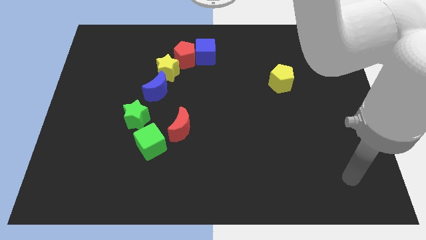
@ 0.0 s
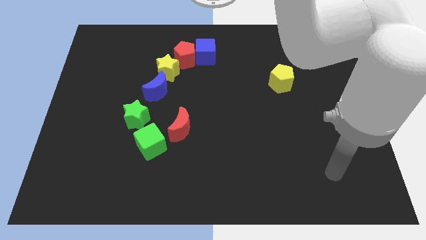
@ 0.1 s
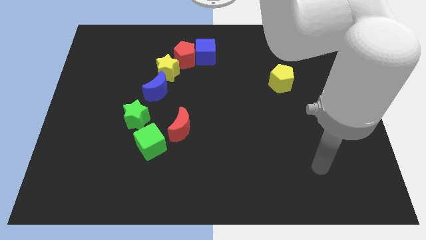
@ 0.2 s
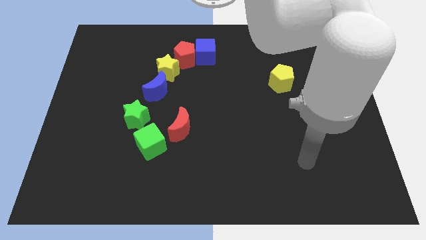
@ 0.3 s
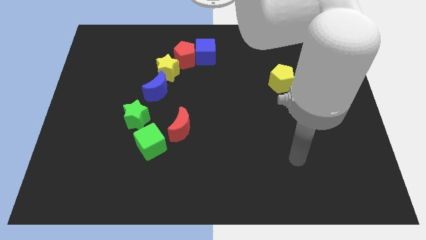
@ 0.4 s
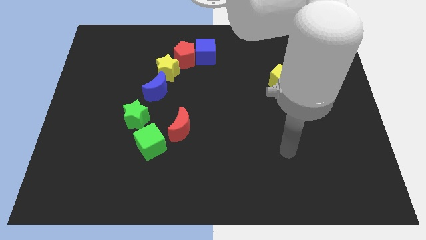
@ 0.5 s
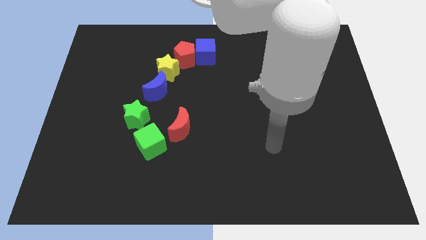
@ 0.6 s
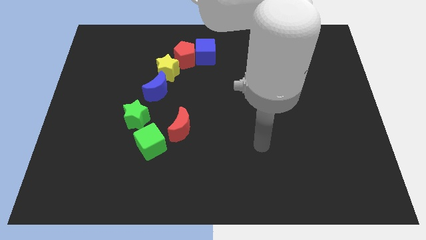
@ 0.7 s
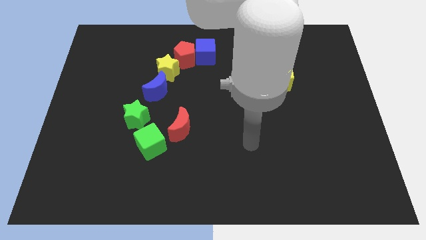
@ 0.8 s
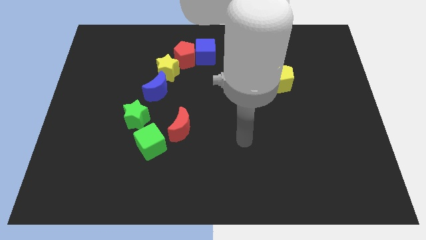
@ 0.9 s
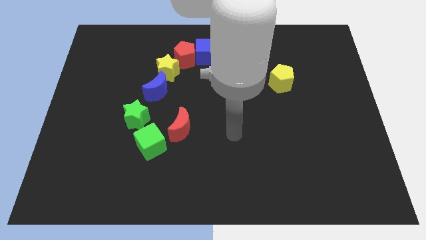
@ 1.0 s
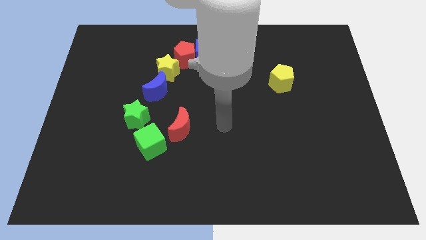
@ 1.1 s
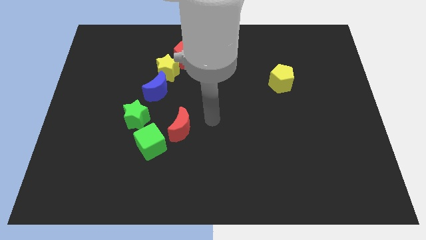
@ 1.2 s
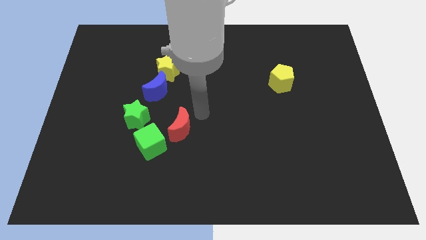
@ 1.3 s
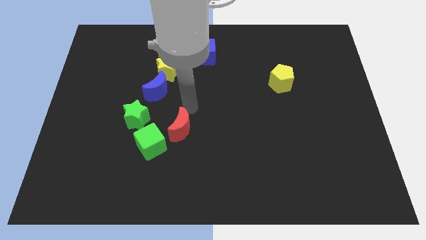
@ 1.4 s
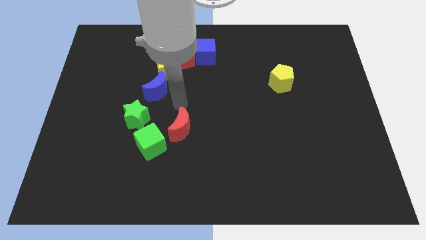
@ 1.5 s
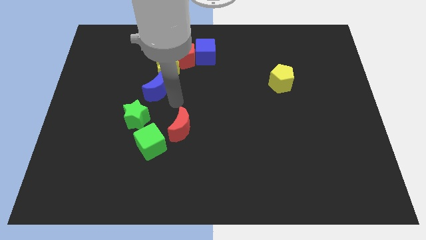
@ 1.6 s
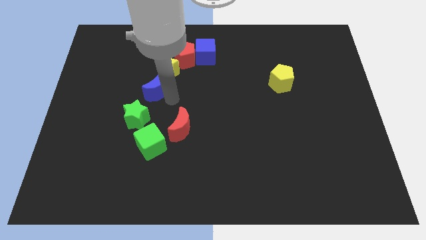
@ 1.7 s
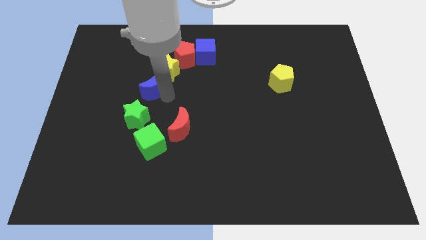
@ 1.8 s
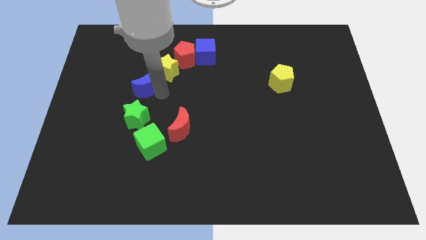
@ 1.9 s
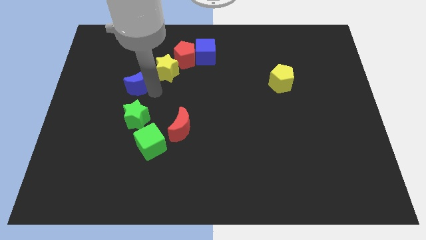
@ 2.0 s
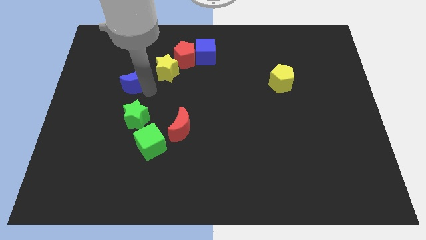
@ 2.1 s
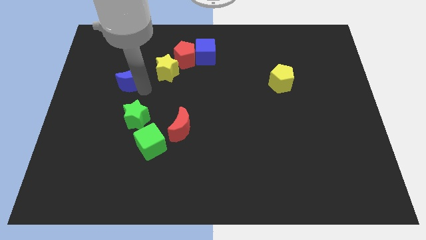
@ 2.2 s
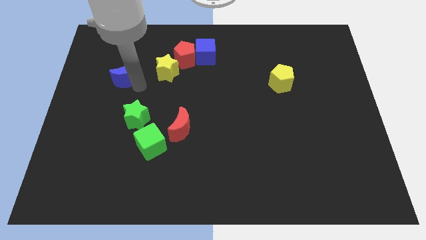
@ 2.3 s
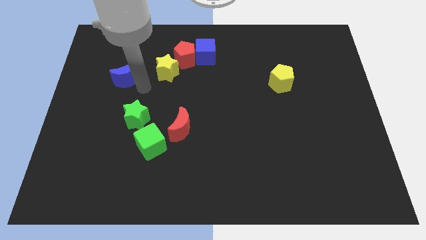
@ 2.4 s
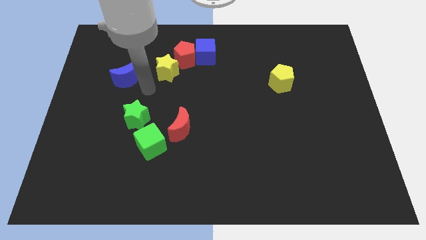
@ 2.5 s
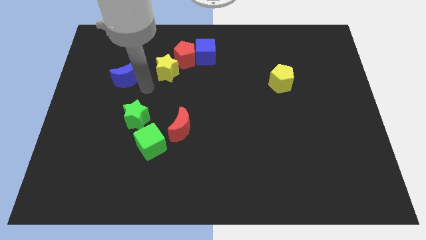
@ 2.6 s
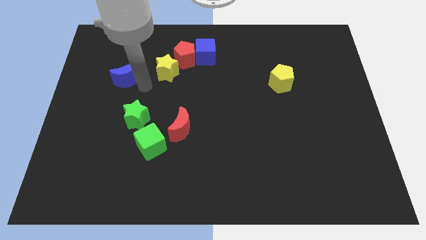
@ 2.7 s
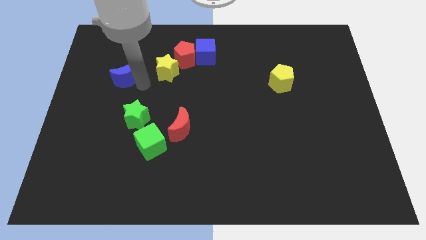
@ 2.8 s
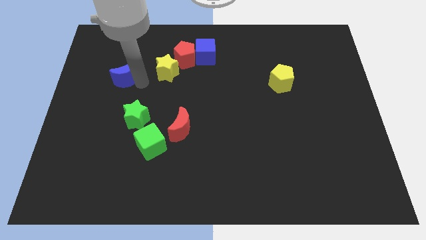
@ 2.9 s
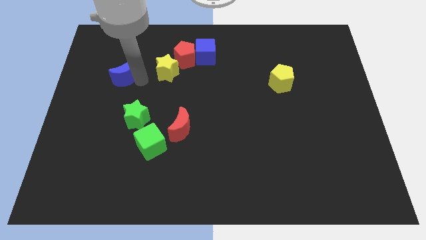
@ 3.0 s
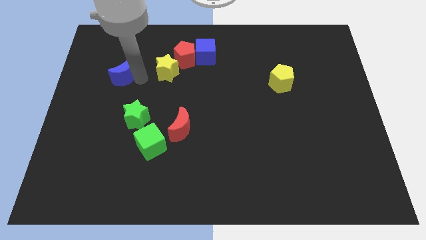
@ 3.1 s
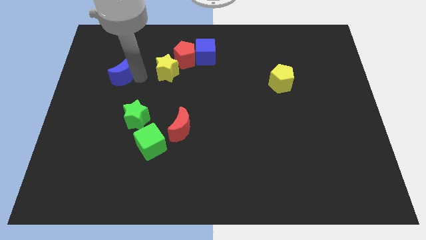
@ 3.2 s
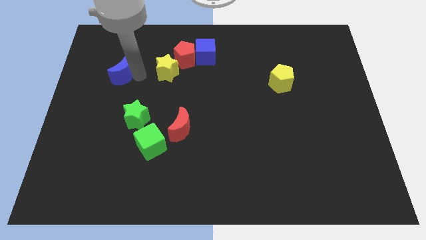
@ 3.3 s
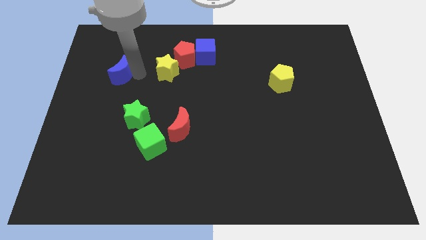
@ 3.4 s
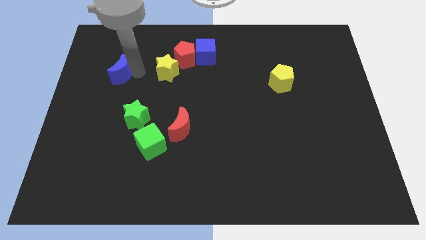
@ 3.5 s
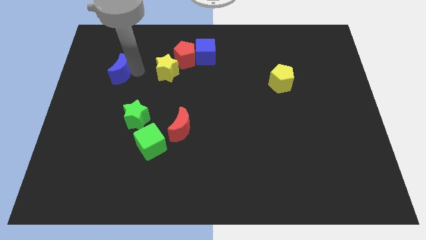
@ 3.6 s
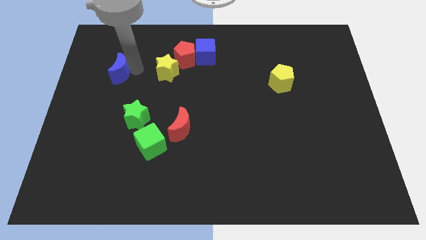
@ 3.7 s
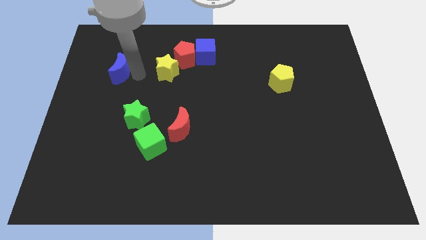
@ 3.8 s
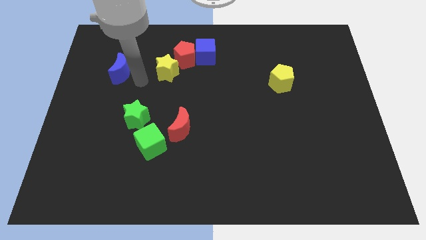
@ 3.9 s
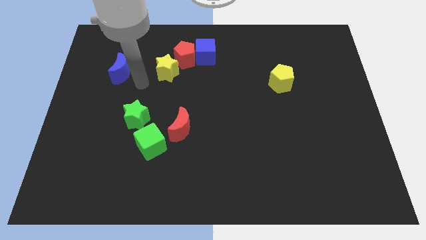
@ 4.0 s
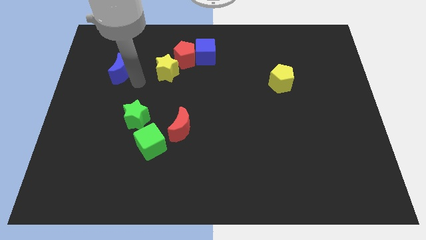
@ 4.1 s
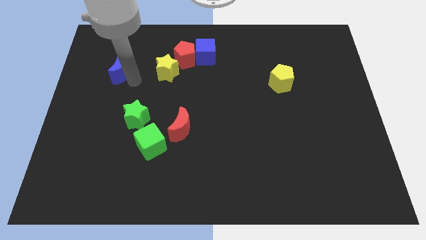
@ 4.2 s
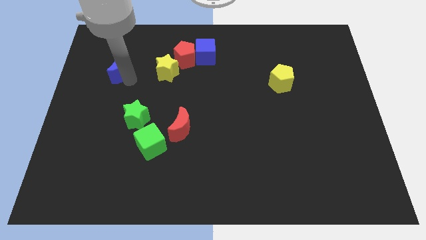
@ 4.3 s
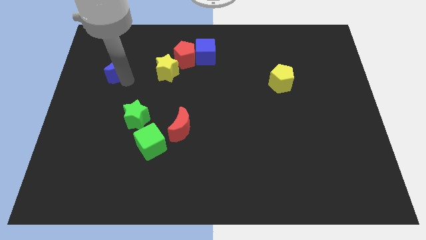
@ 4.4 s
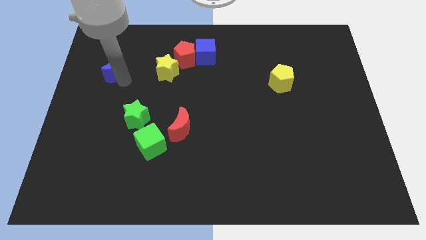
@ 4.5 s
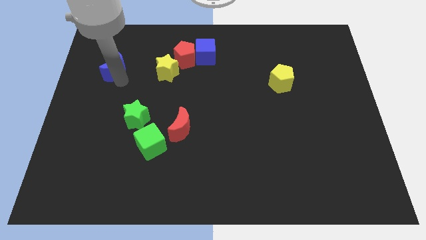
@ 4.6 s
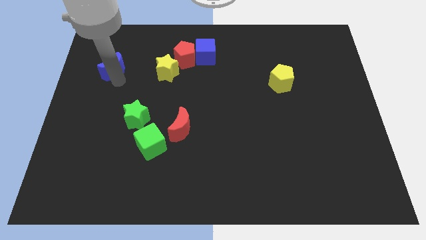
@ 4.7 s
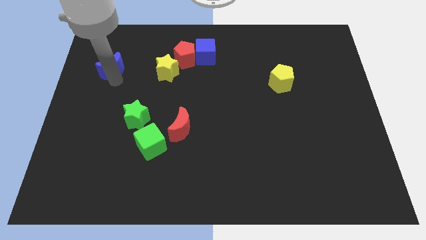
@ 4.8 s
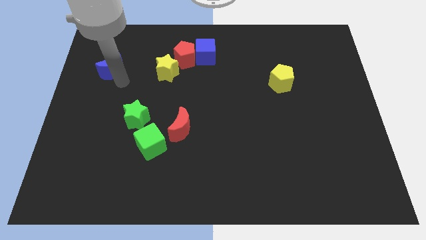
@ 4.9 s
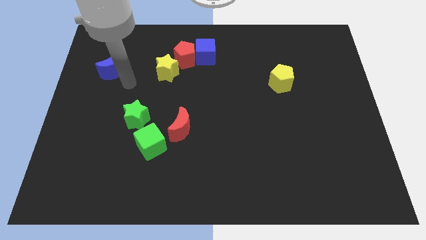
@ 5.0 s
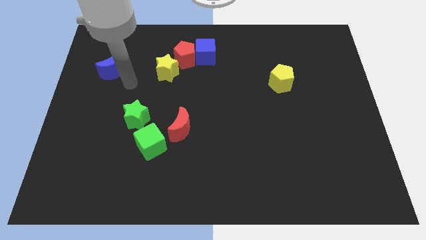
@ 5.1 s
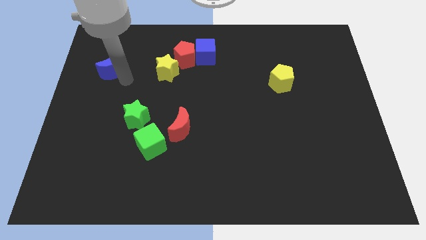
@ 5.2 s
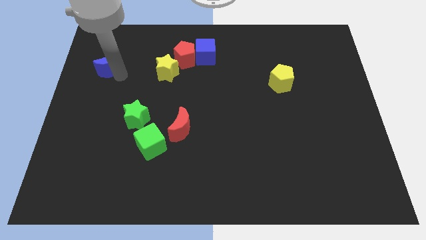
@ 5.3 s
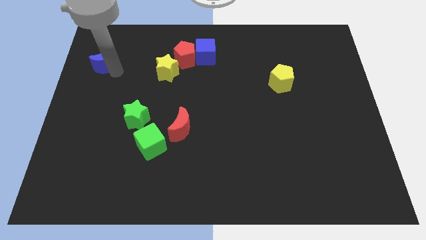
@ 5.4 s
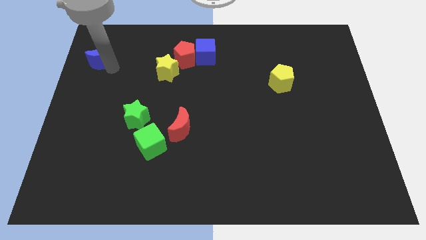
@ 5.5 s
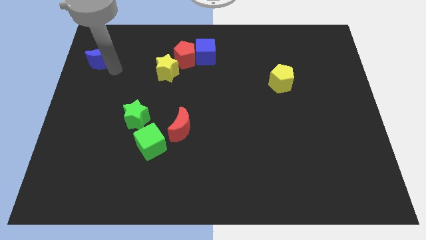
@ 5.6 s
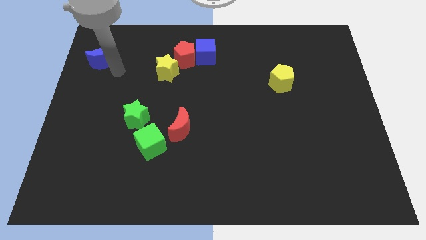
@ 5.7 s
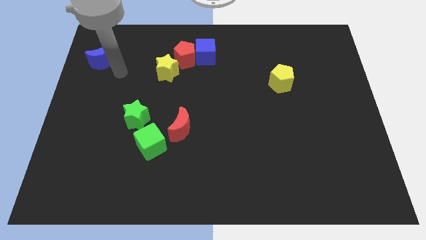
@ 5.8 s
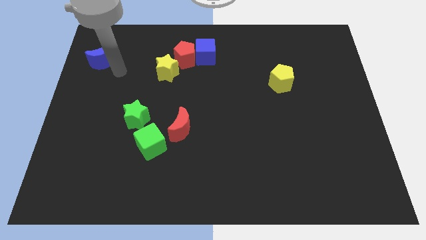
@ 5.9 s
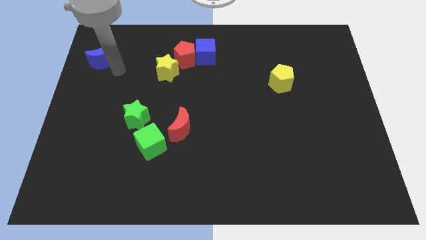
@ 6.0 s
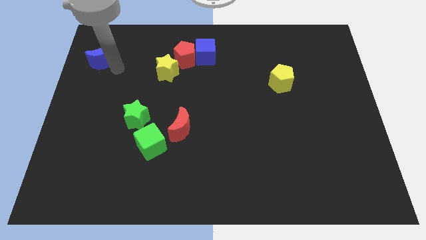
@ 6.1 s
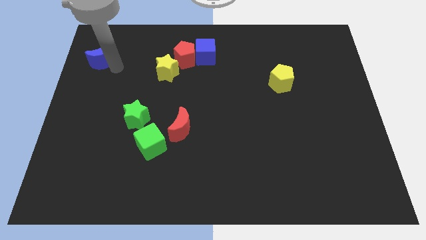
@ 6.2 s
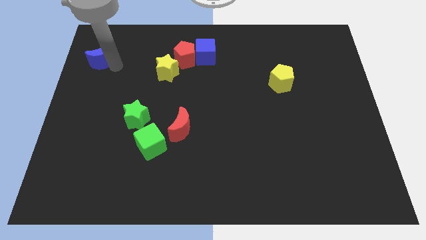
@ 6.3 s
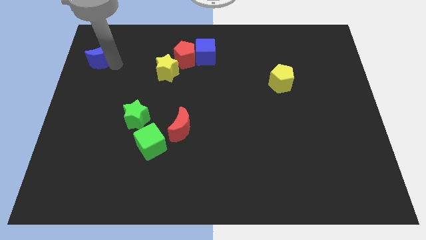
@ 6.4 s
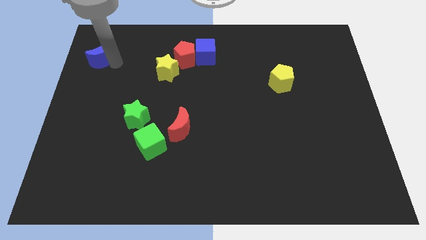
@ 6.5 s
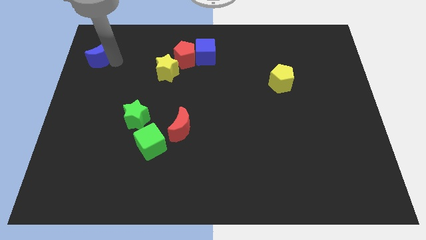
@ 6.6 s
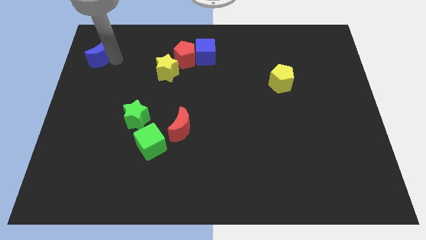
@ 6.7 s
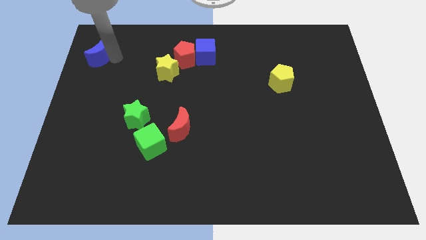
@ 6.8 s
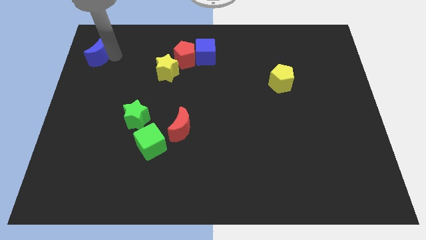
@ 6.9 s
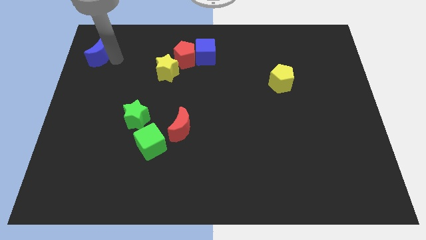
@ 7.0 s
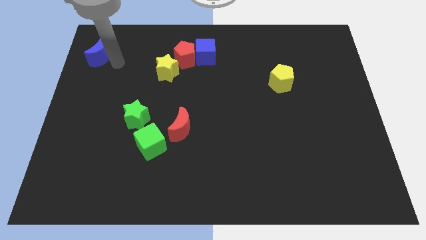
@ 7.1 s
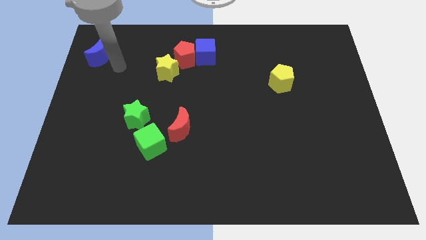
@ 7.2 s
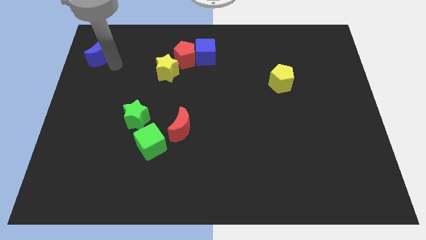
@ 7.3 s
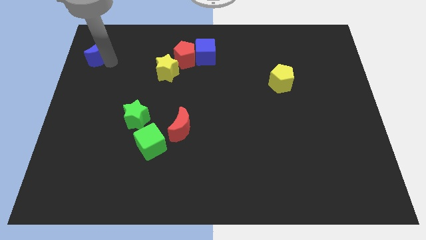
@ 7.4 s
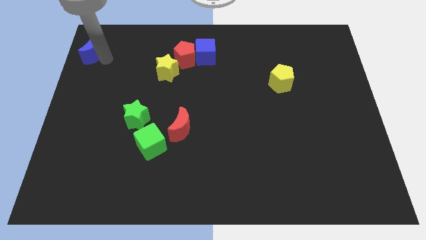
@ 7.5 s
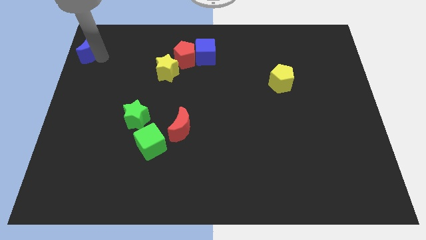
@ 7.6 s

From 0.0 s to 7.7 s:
slide the blue moon to the top left corner
